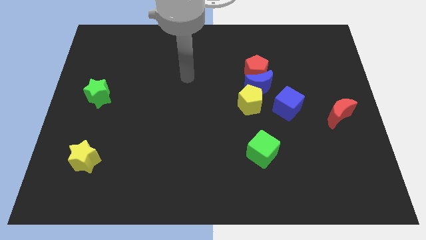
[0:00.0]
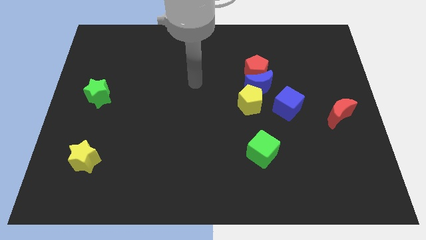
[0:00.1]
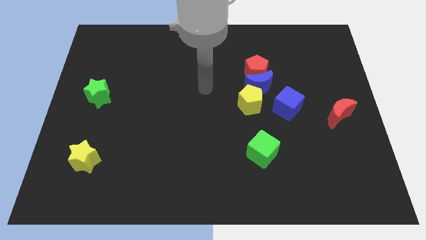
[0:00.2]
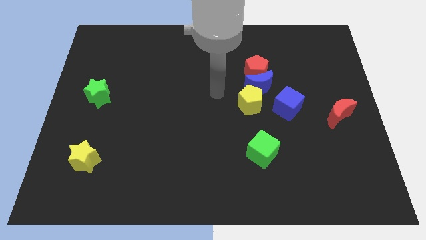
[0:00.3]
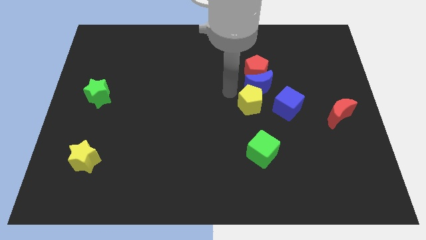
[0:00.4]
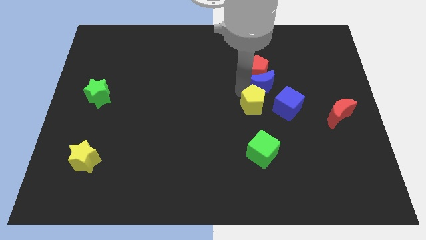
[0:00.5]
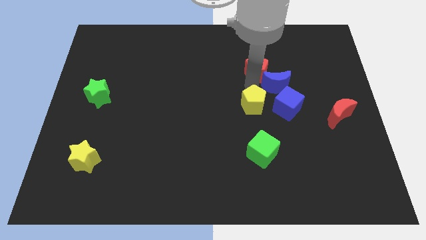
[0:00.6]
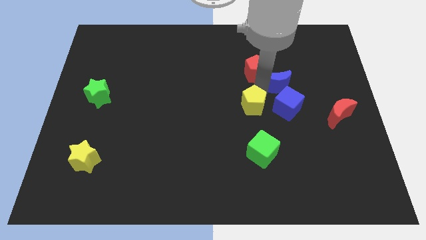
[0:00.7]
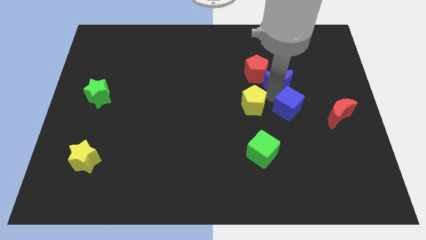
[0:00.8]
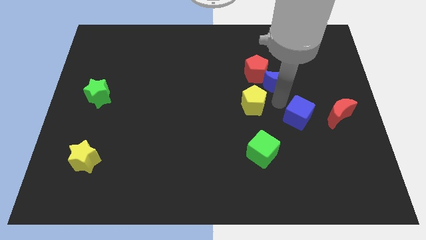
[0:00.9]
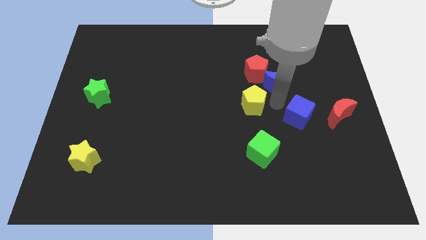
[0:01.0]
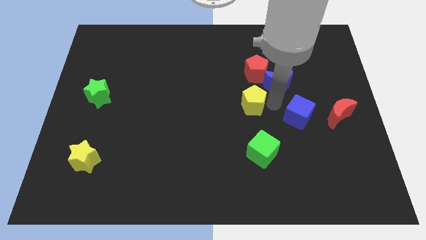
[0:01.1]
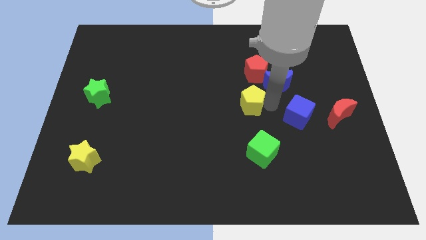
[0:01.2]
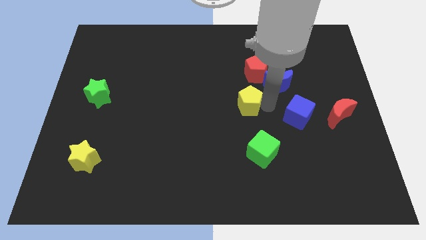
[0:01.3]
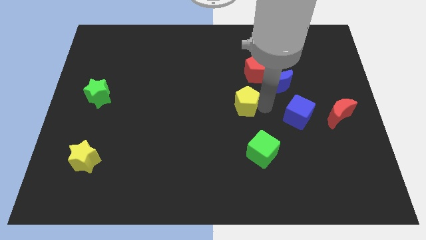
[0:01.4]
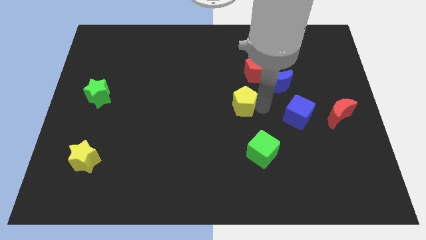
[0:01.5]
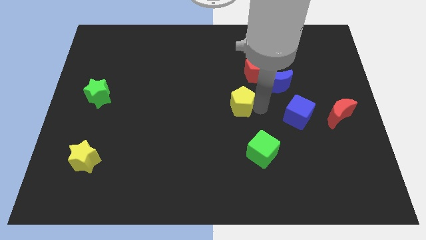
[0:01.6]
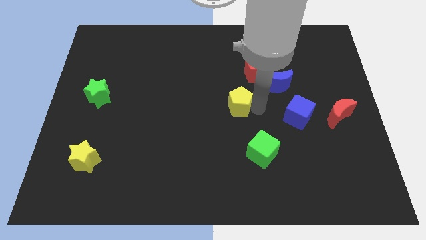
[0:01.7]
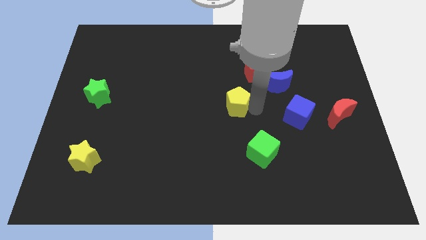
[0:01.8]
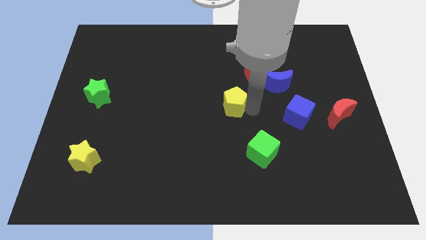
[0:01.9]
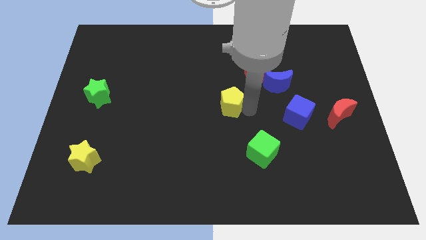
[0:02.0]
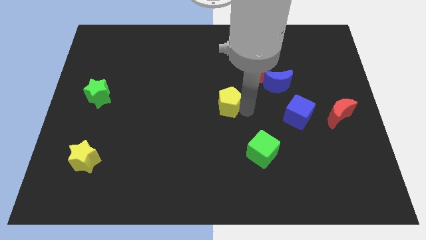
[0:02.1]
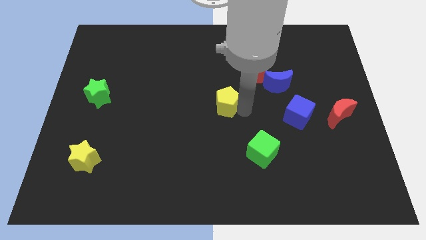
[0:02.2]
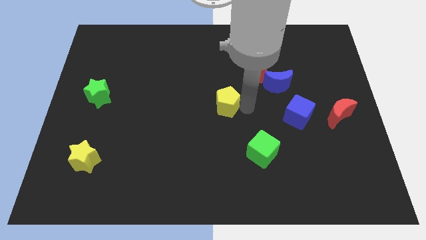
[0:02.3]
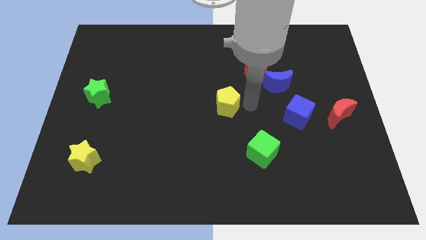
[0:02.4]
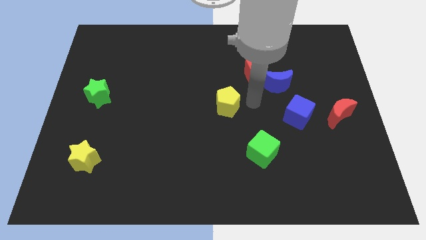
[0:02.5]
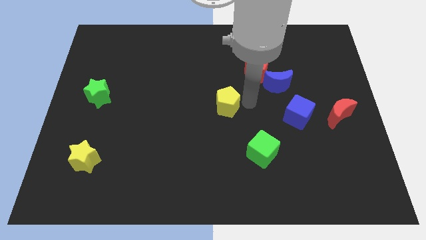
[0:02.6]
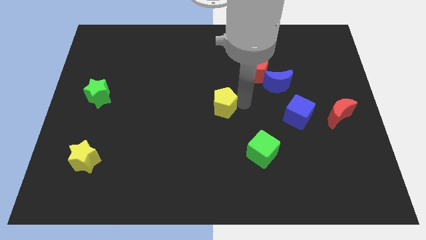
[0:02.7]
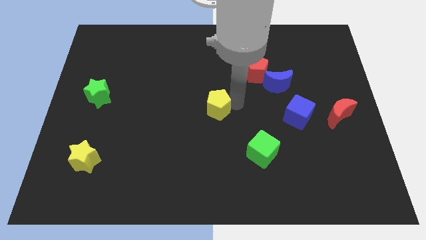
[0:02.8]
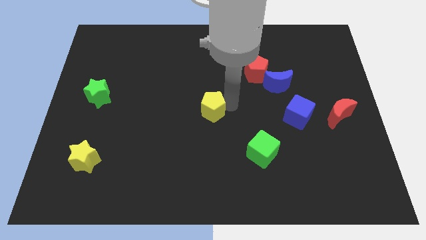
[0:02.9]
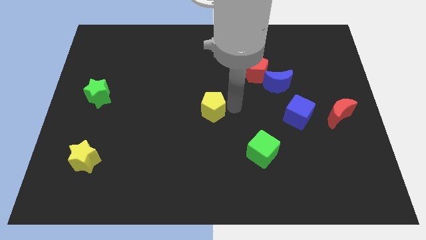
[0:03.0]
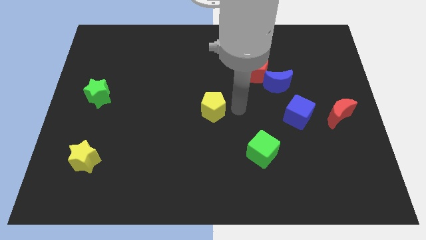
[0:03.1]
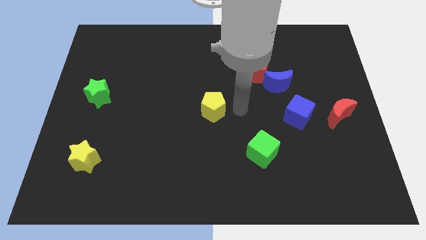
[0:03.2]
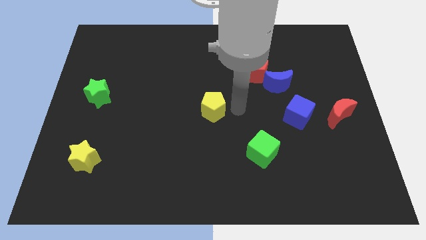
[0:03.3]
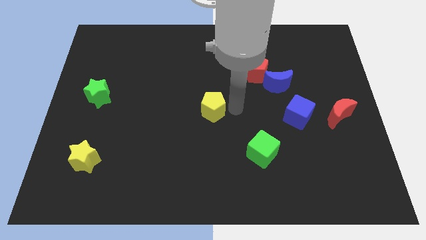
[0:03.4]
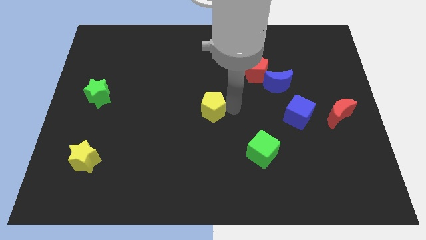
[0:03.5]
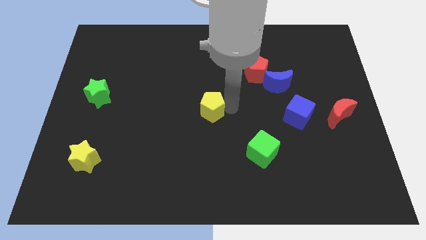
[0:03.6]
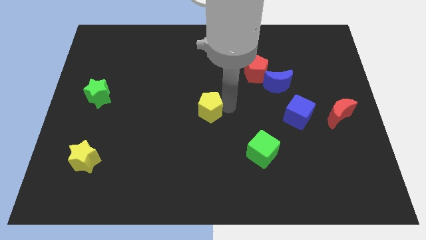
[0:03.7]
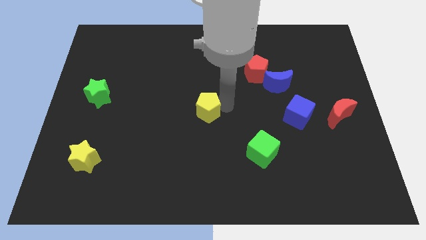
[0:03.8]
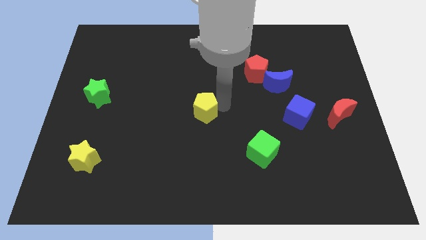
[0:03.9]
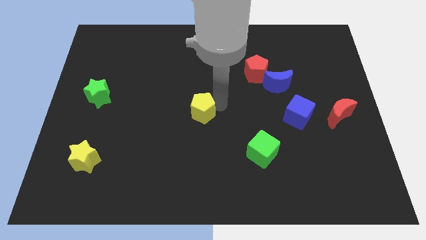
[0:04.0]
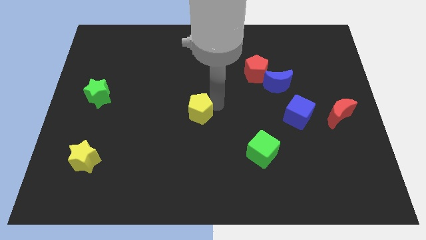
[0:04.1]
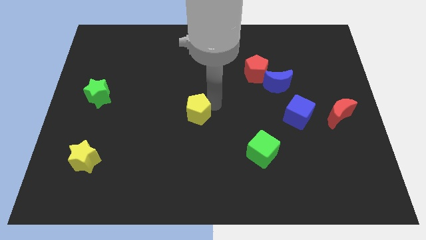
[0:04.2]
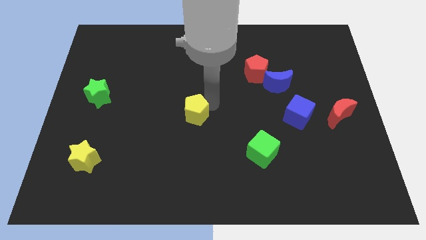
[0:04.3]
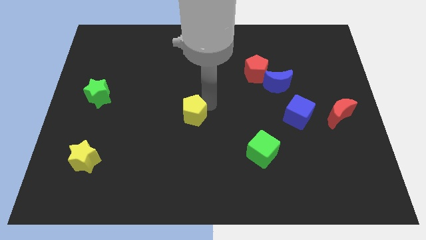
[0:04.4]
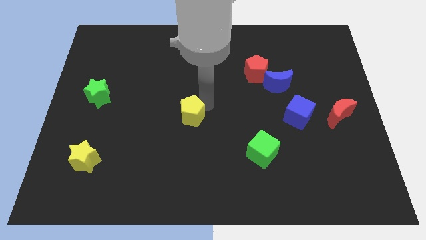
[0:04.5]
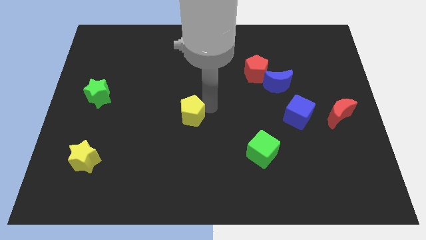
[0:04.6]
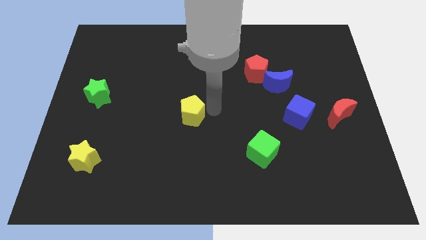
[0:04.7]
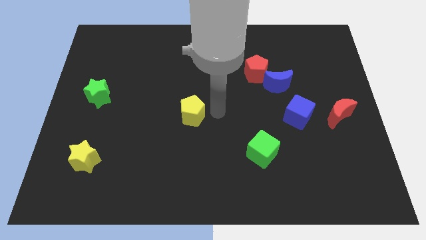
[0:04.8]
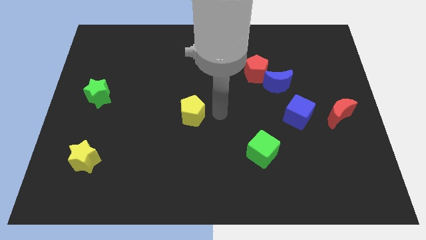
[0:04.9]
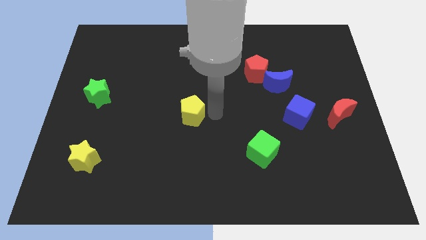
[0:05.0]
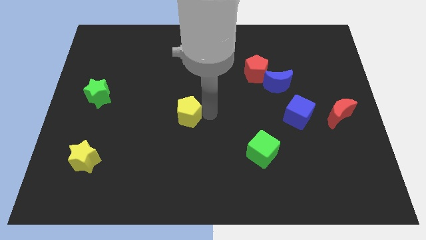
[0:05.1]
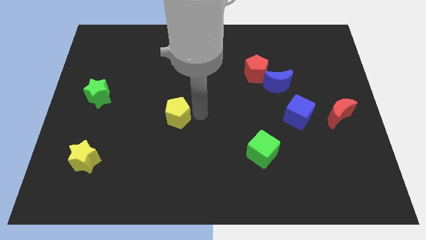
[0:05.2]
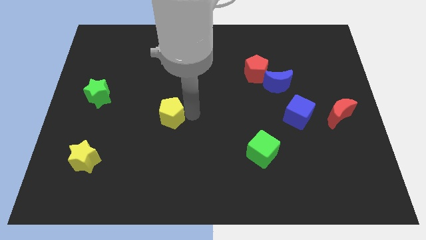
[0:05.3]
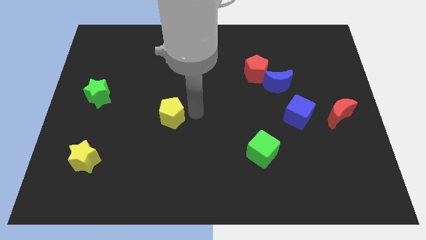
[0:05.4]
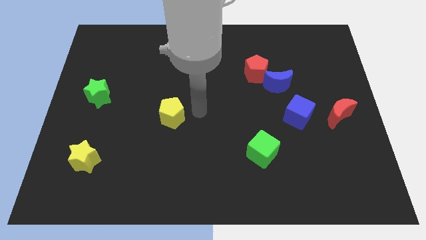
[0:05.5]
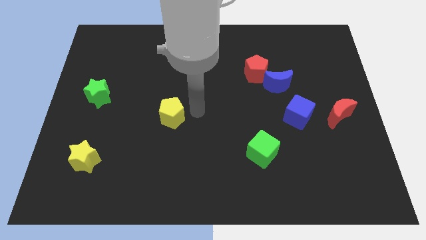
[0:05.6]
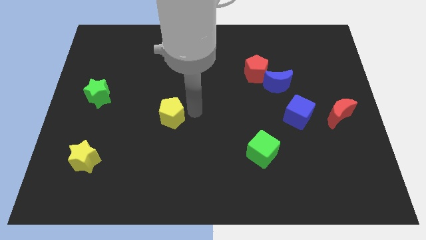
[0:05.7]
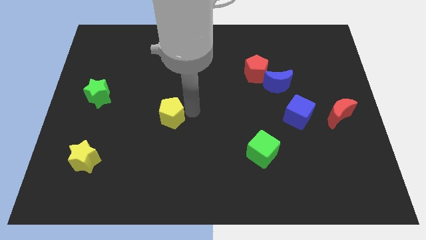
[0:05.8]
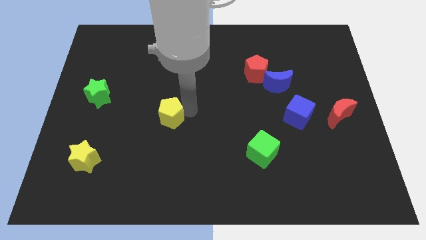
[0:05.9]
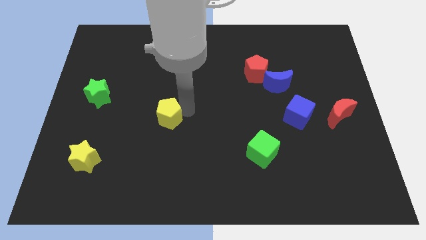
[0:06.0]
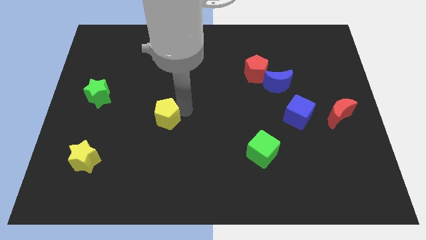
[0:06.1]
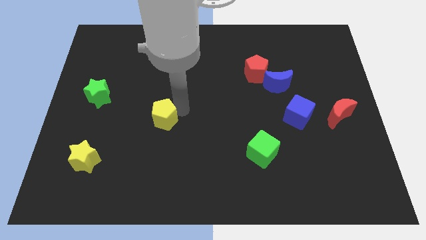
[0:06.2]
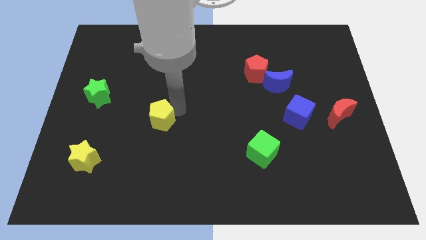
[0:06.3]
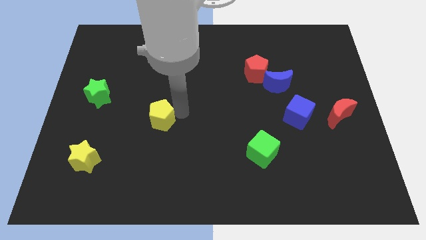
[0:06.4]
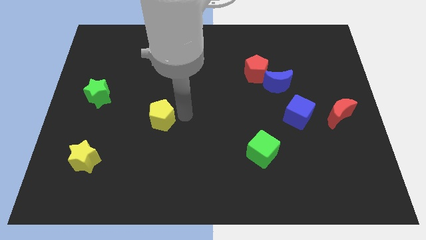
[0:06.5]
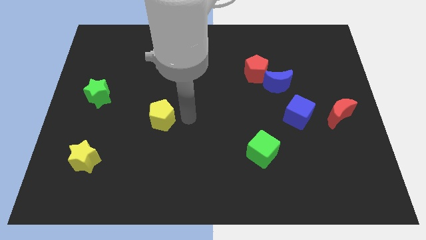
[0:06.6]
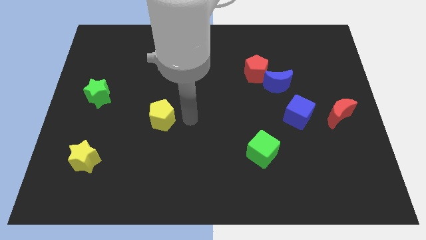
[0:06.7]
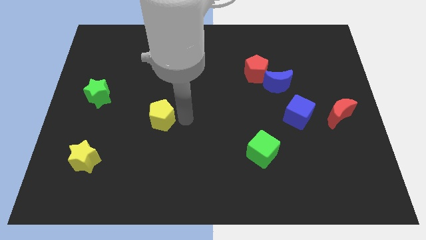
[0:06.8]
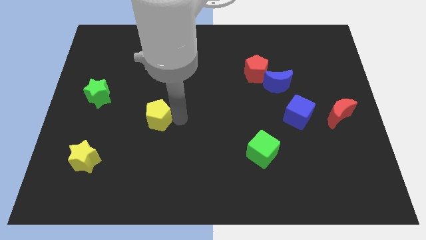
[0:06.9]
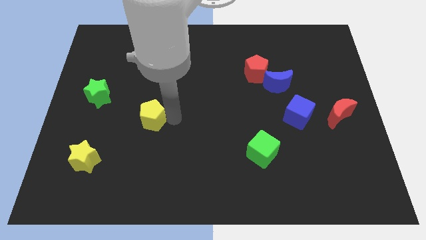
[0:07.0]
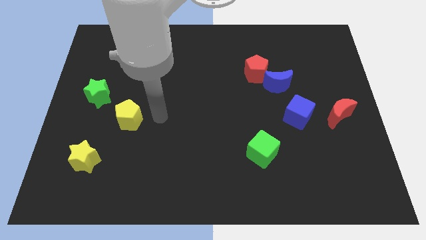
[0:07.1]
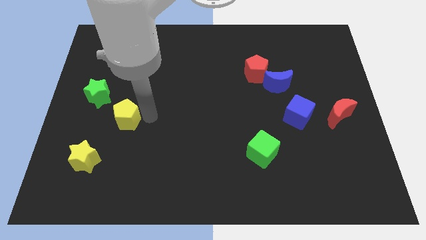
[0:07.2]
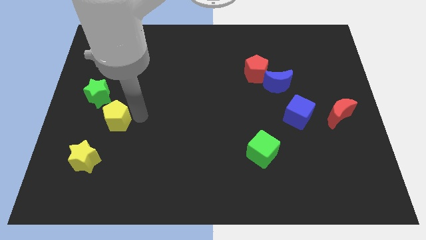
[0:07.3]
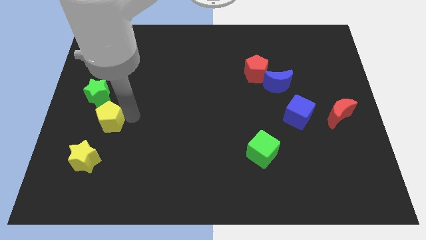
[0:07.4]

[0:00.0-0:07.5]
slide the yellow pentagon to the bottom side of the green star

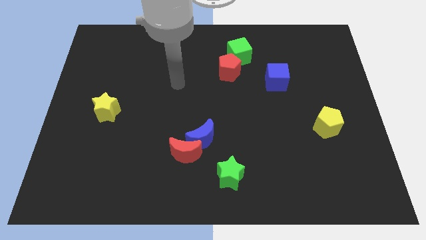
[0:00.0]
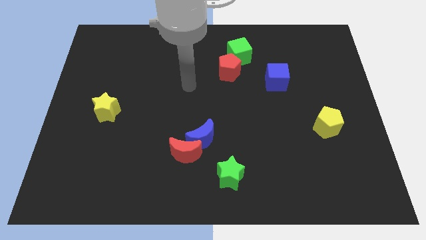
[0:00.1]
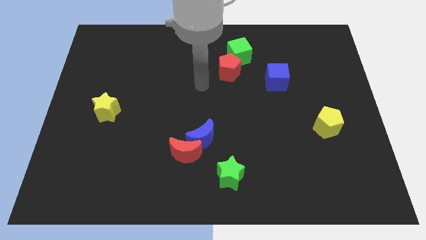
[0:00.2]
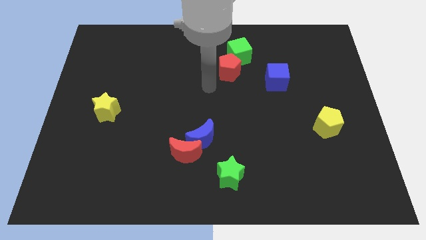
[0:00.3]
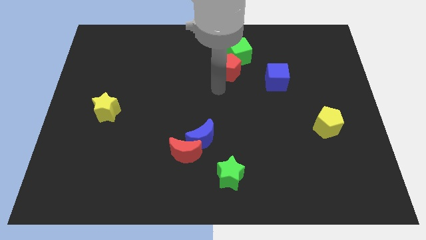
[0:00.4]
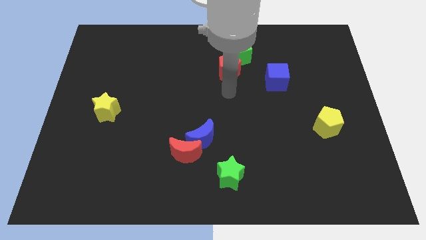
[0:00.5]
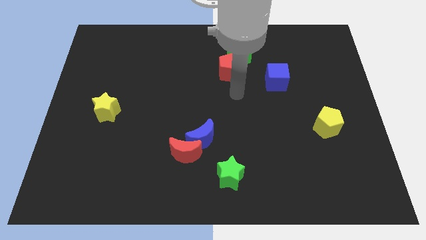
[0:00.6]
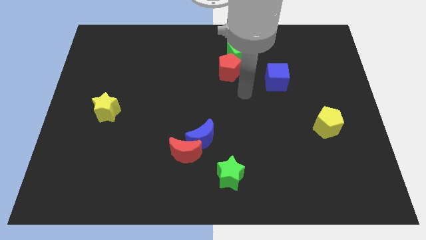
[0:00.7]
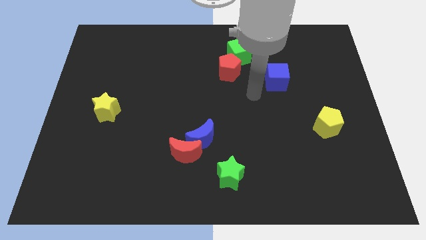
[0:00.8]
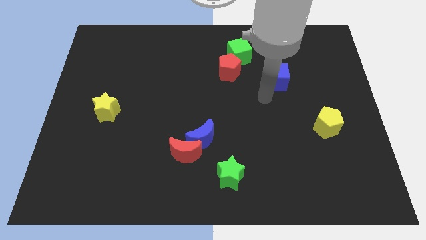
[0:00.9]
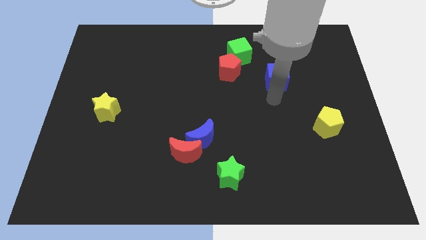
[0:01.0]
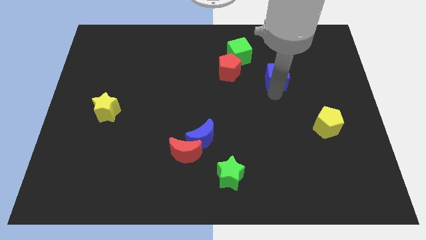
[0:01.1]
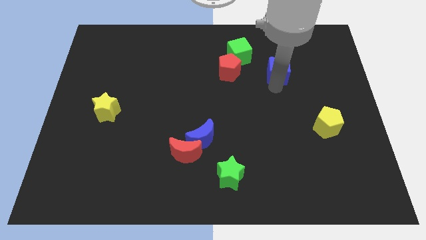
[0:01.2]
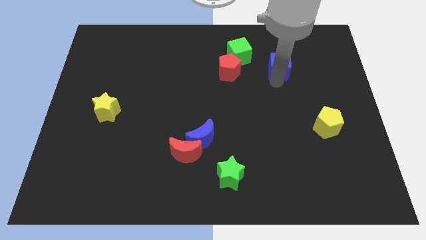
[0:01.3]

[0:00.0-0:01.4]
move the blue cube to the right side of the green cube
